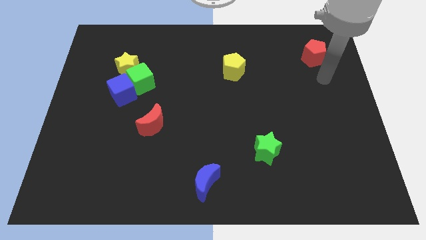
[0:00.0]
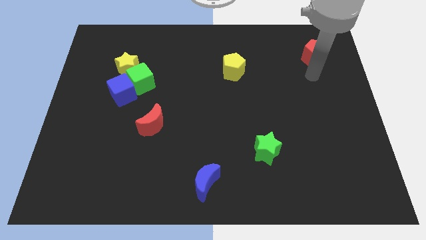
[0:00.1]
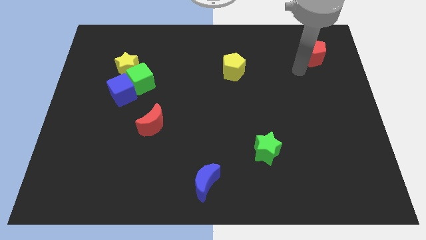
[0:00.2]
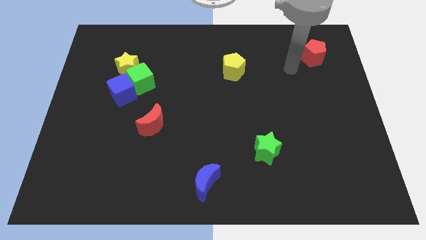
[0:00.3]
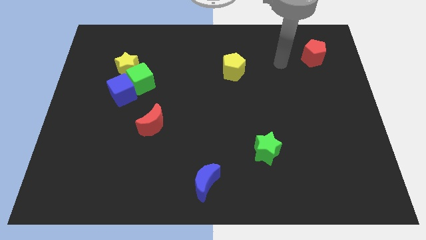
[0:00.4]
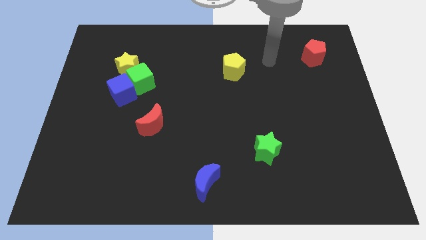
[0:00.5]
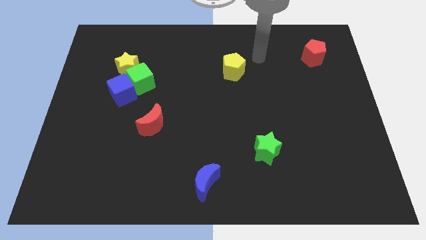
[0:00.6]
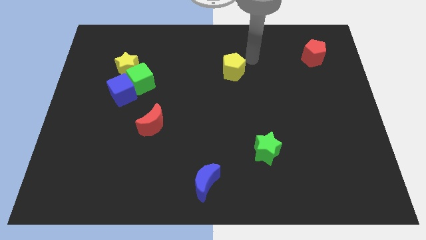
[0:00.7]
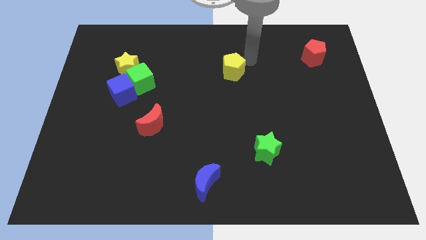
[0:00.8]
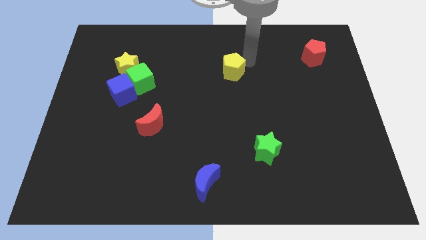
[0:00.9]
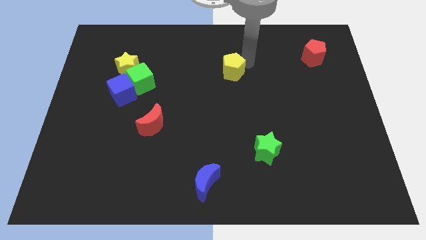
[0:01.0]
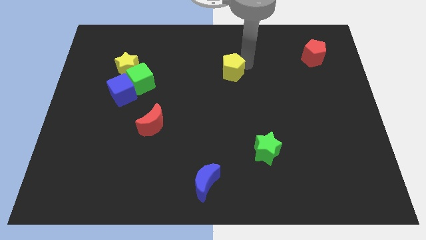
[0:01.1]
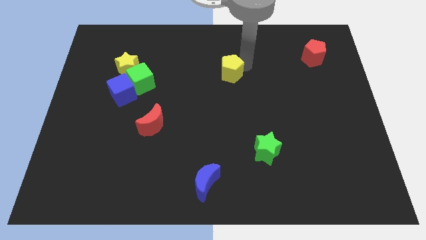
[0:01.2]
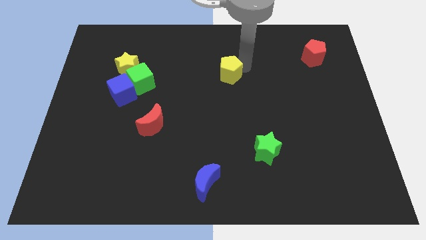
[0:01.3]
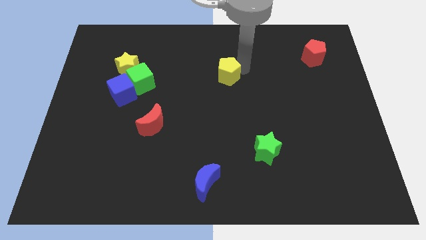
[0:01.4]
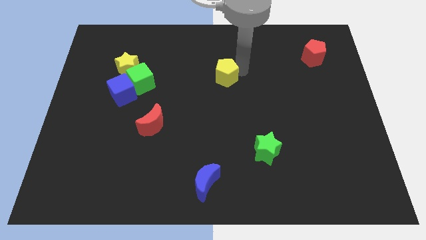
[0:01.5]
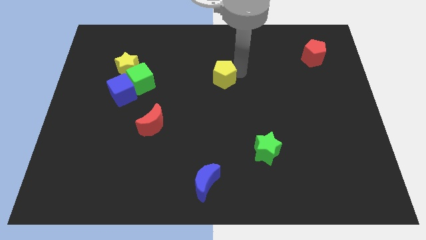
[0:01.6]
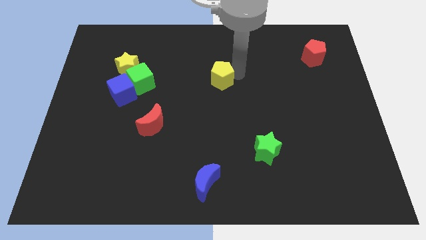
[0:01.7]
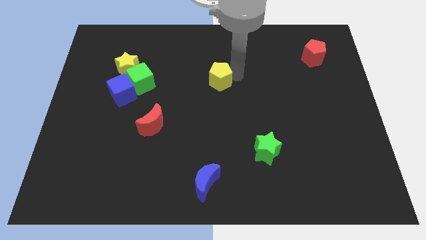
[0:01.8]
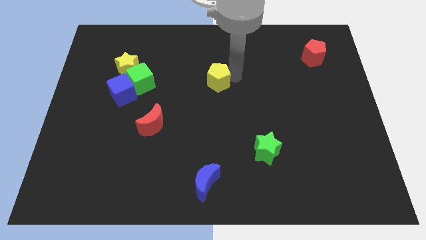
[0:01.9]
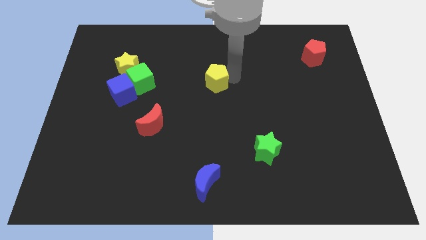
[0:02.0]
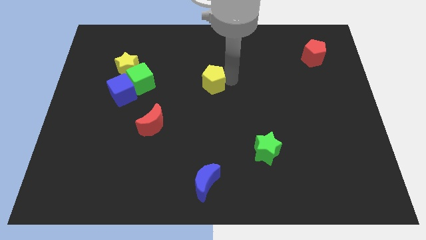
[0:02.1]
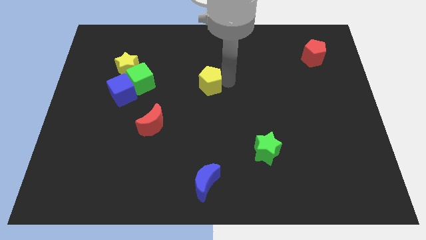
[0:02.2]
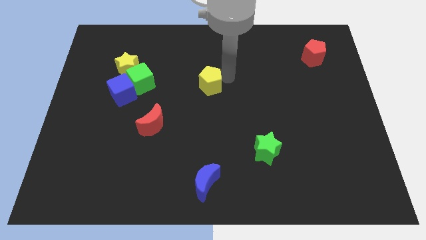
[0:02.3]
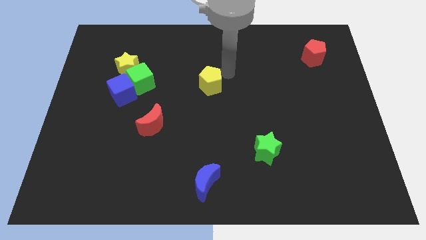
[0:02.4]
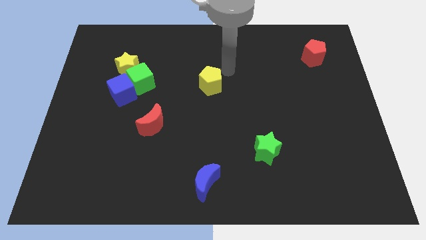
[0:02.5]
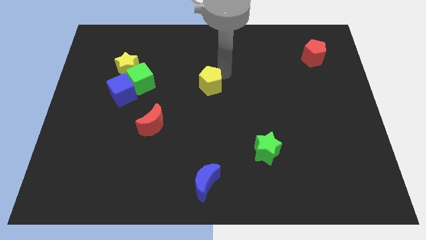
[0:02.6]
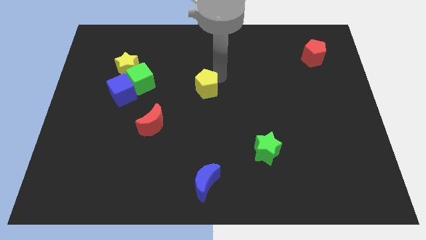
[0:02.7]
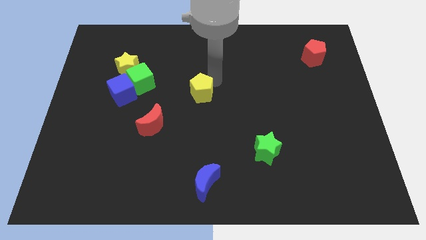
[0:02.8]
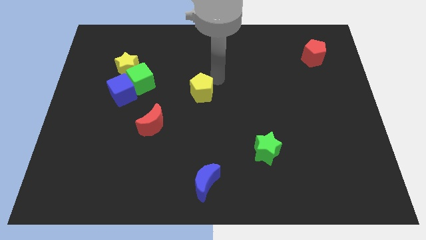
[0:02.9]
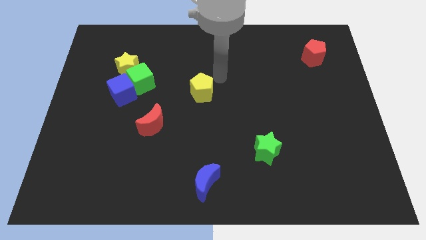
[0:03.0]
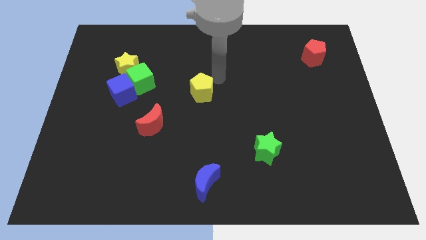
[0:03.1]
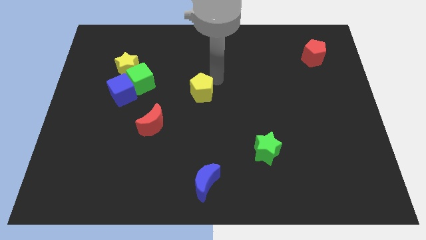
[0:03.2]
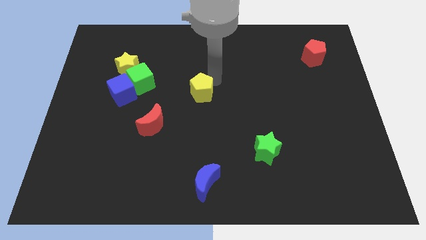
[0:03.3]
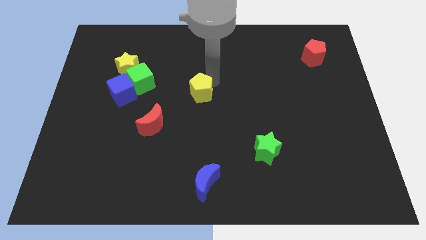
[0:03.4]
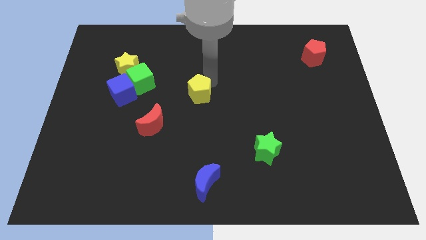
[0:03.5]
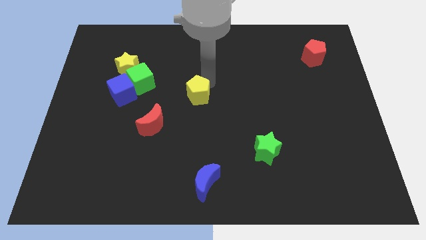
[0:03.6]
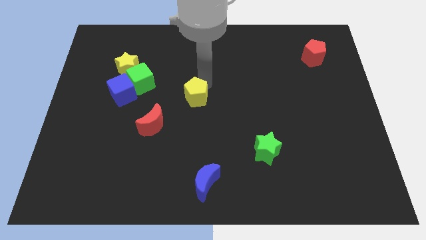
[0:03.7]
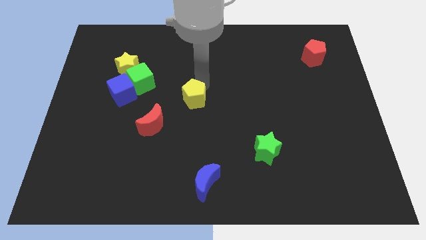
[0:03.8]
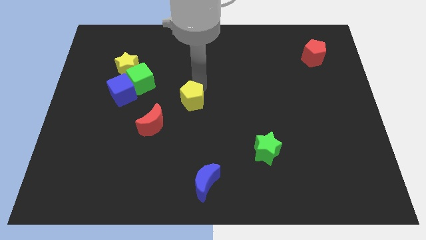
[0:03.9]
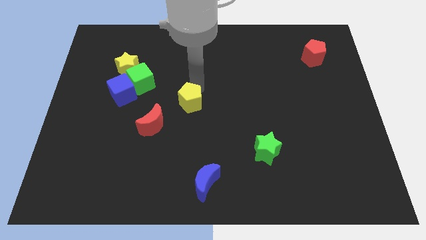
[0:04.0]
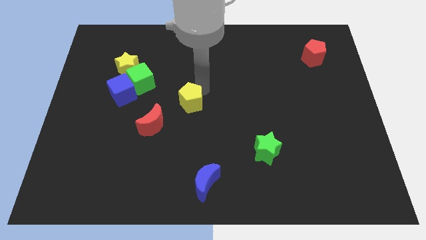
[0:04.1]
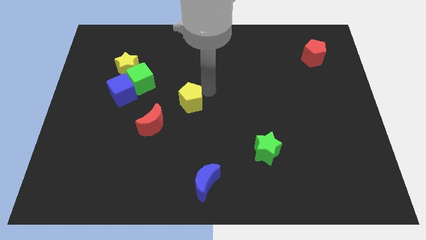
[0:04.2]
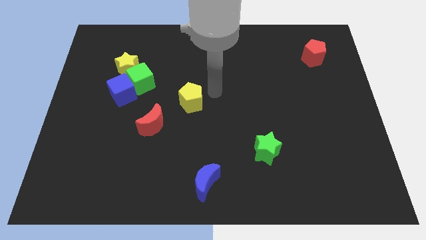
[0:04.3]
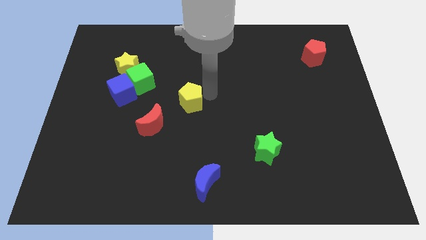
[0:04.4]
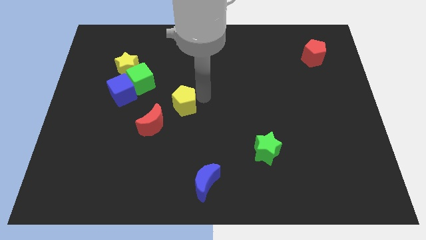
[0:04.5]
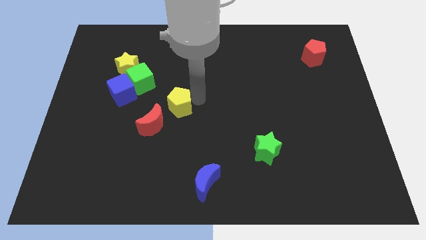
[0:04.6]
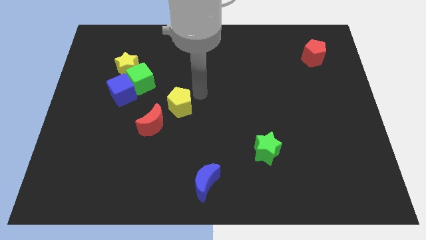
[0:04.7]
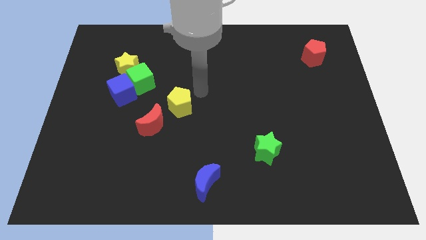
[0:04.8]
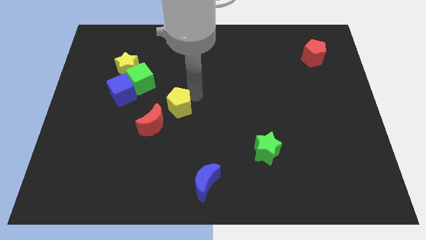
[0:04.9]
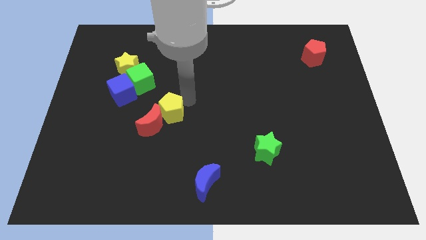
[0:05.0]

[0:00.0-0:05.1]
put the yellow pentagon close to the red moon

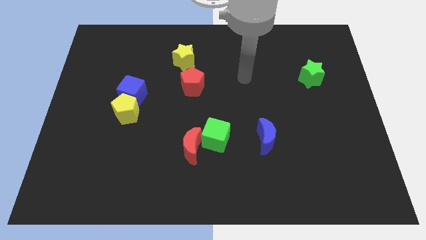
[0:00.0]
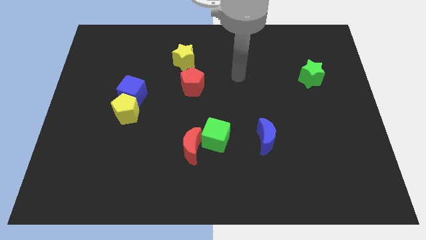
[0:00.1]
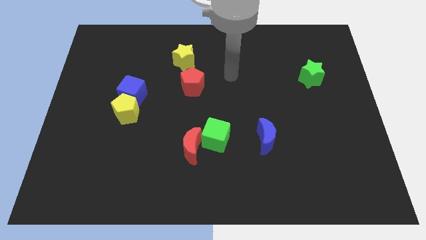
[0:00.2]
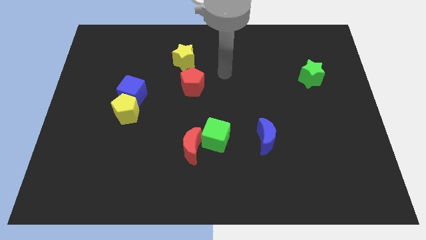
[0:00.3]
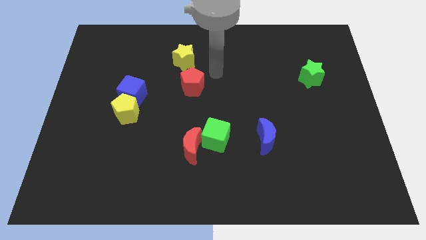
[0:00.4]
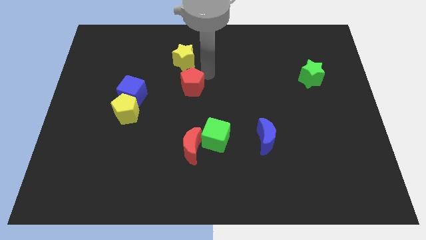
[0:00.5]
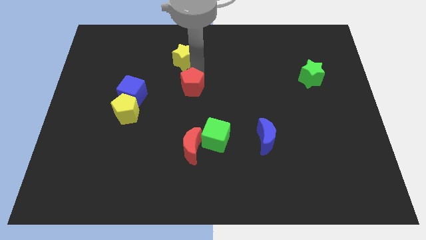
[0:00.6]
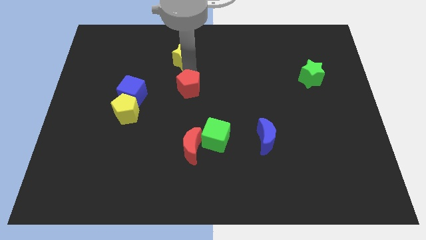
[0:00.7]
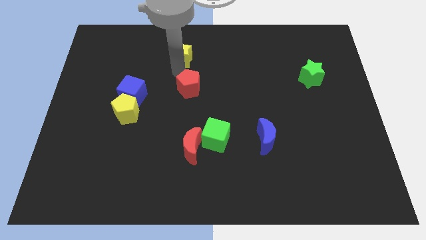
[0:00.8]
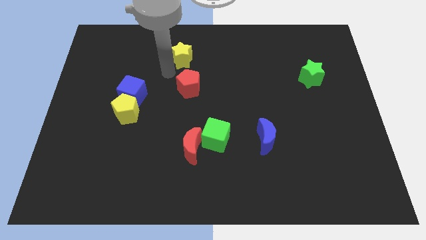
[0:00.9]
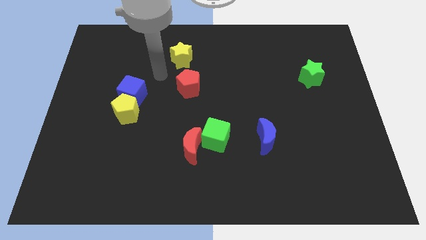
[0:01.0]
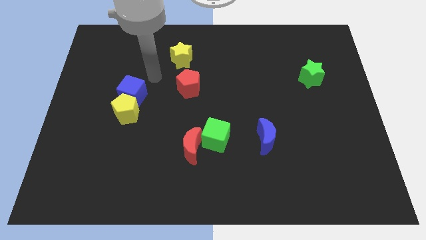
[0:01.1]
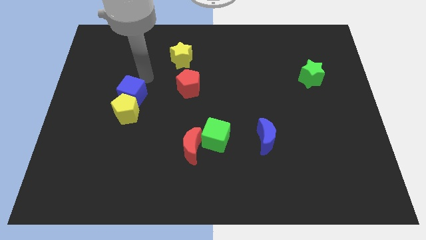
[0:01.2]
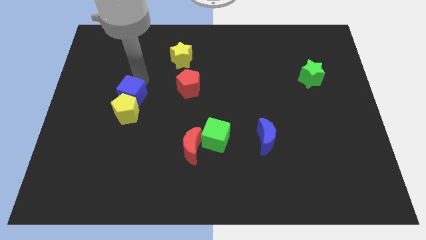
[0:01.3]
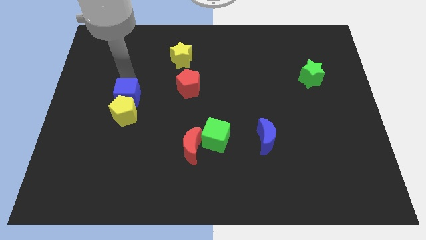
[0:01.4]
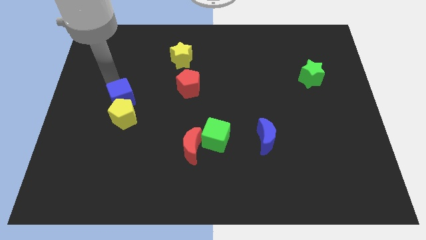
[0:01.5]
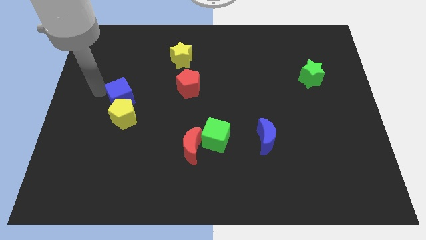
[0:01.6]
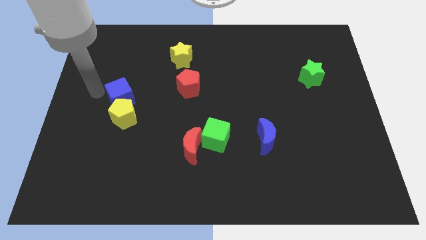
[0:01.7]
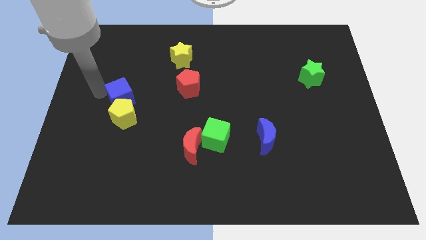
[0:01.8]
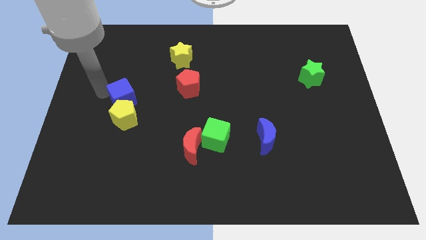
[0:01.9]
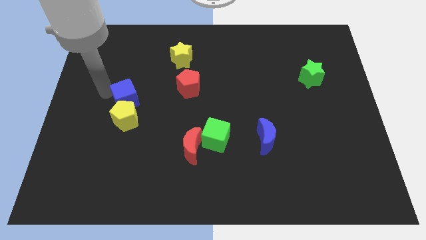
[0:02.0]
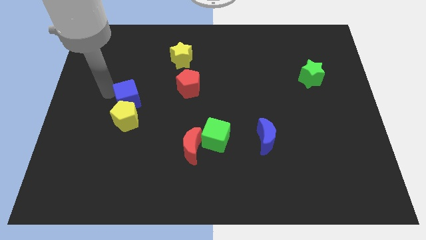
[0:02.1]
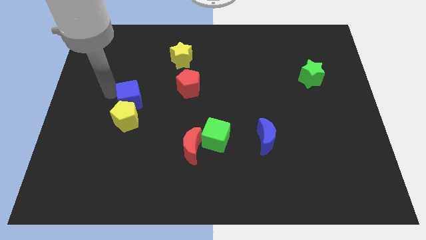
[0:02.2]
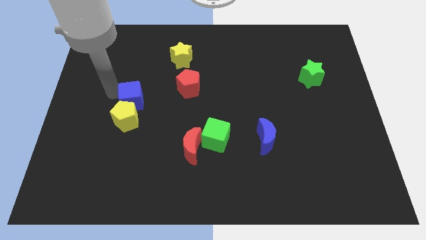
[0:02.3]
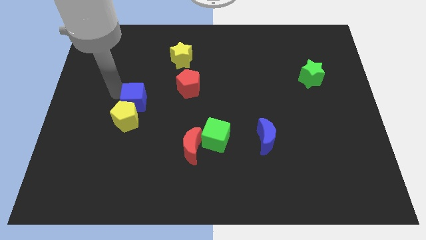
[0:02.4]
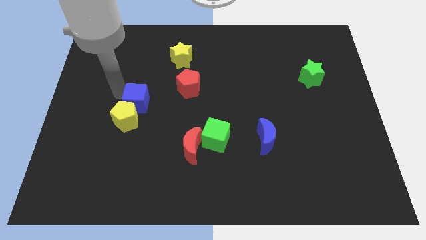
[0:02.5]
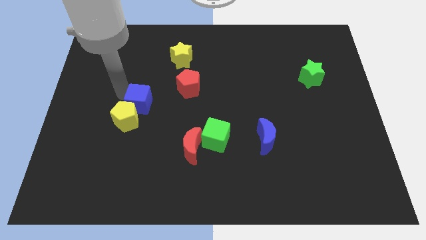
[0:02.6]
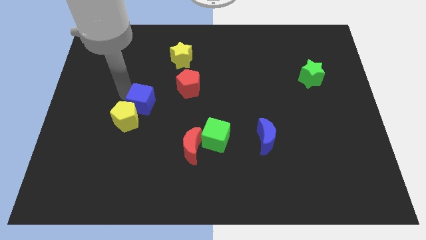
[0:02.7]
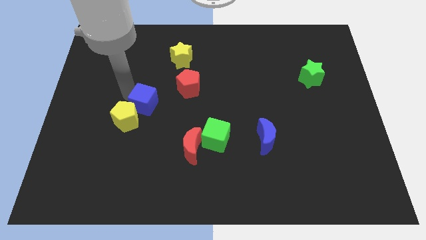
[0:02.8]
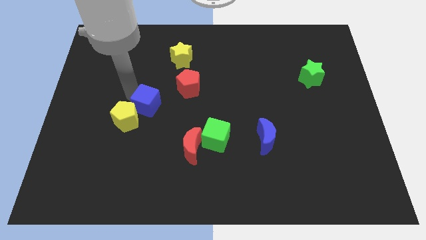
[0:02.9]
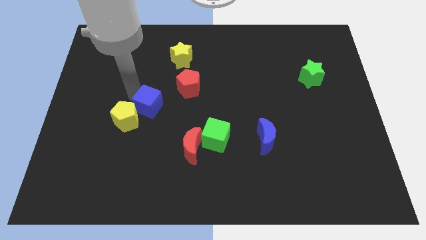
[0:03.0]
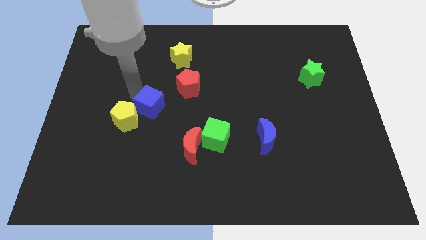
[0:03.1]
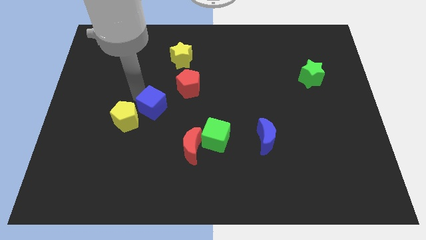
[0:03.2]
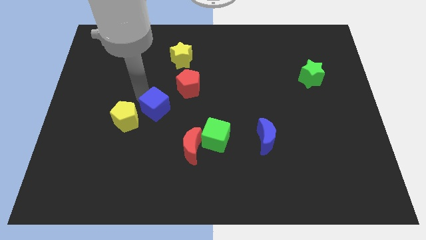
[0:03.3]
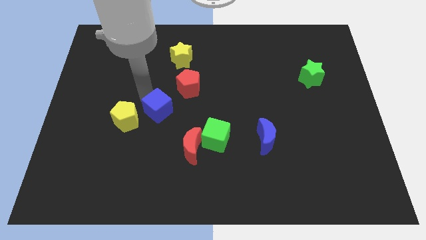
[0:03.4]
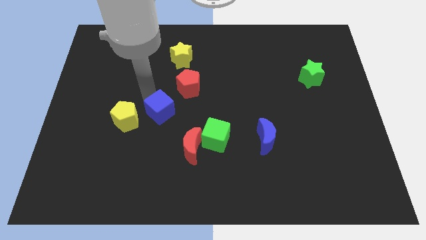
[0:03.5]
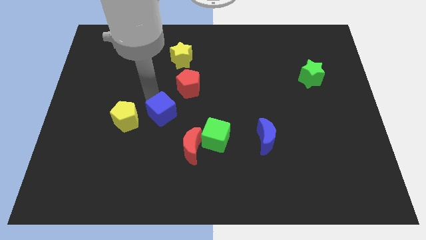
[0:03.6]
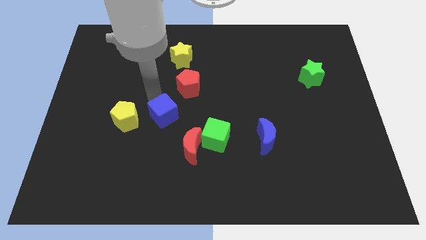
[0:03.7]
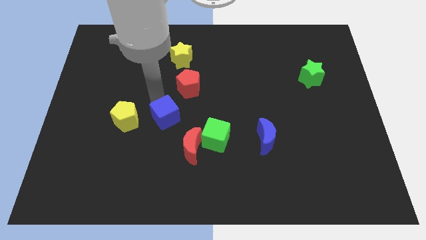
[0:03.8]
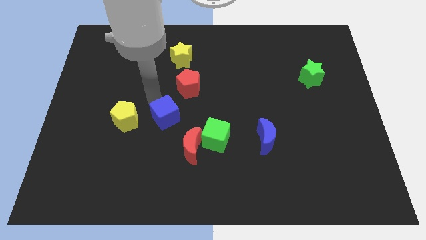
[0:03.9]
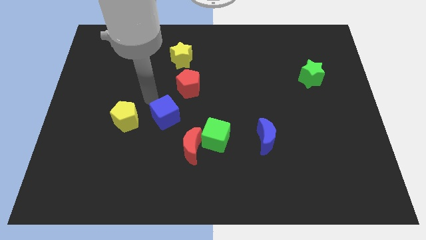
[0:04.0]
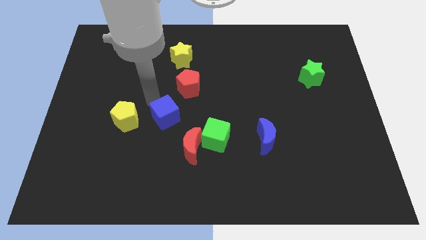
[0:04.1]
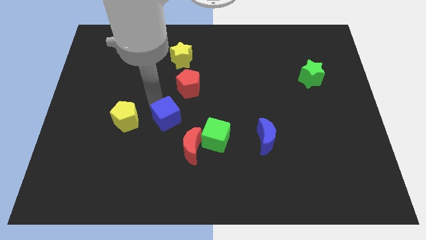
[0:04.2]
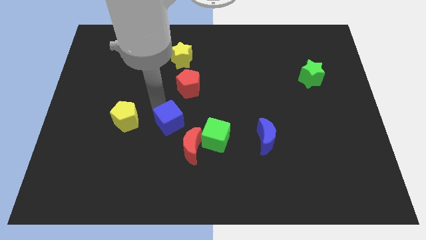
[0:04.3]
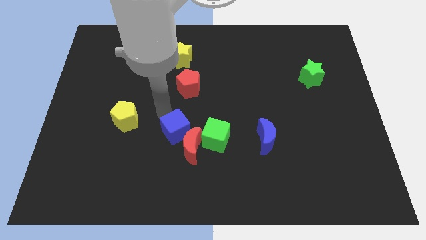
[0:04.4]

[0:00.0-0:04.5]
move the blue cube next to the red moon
